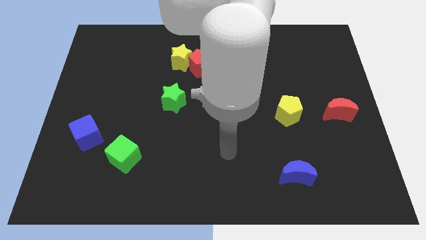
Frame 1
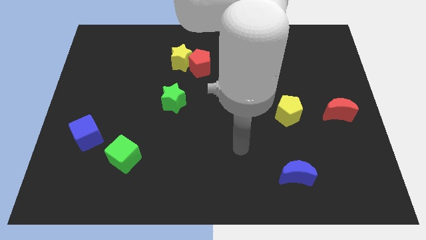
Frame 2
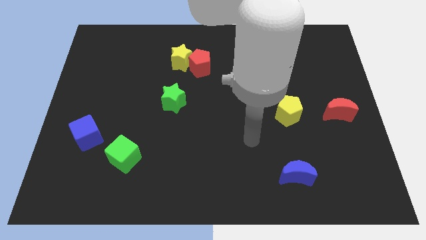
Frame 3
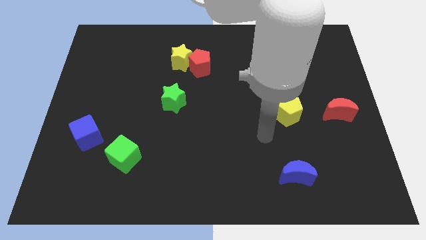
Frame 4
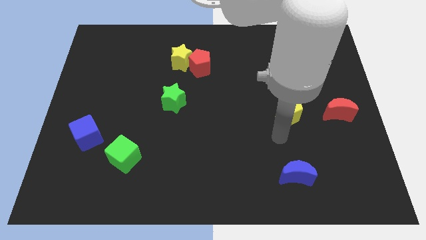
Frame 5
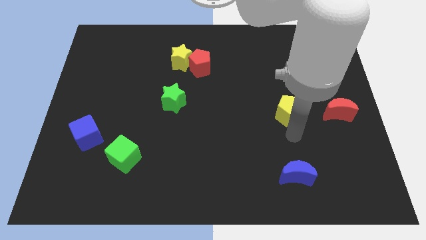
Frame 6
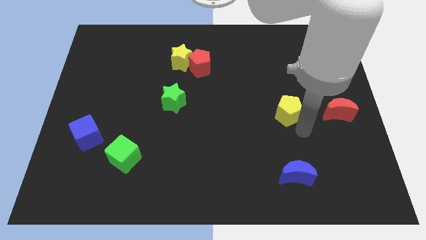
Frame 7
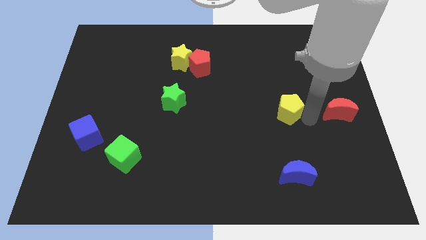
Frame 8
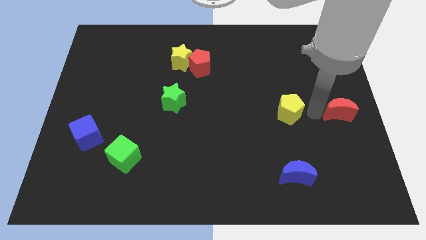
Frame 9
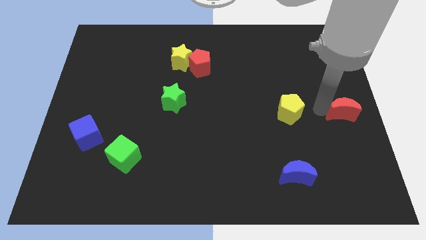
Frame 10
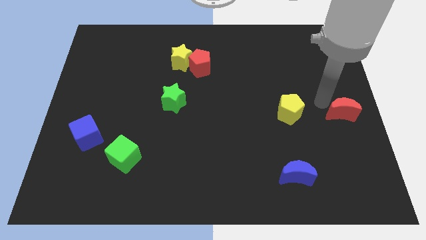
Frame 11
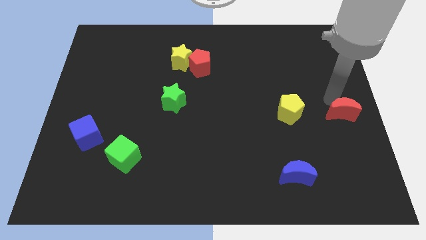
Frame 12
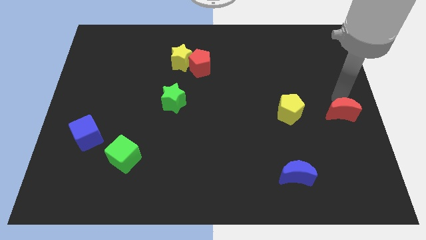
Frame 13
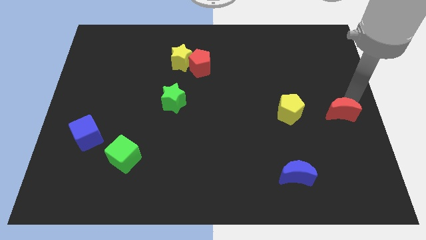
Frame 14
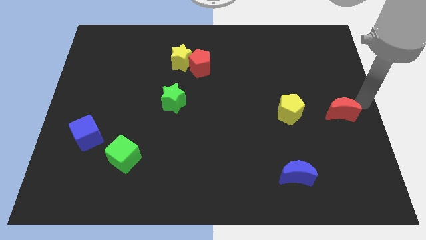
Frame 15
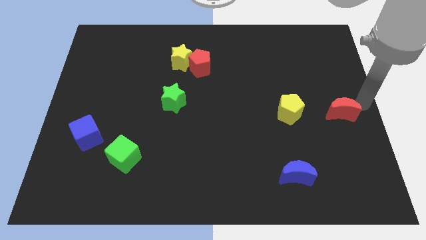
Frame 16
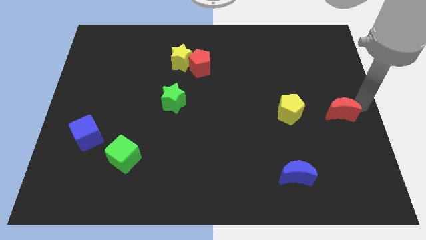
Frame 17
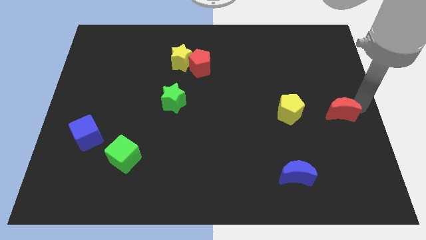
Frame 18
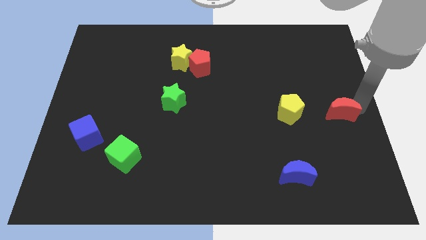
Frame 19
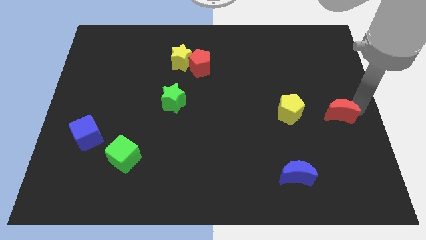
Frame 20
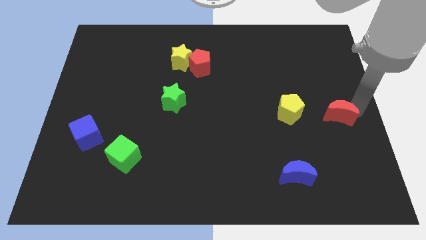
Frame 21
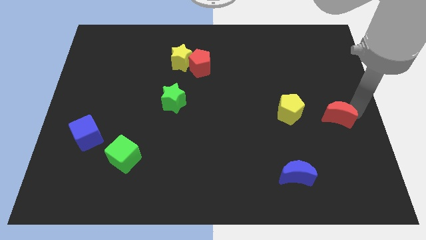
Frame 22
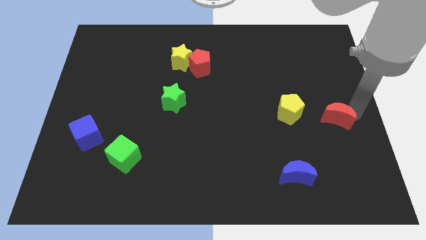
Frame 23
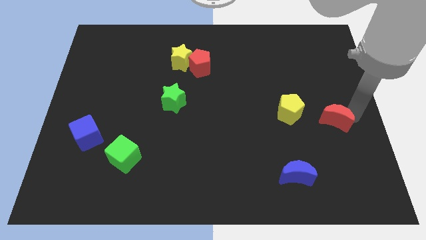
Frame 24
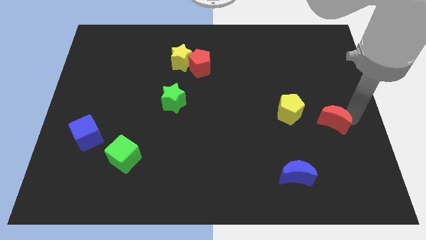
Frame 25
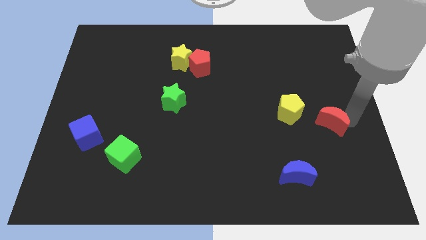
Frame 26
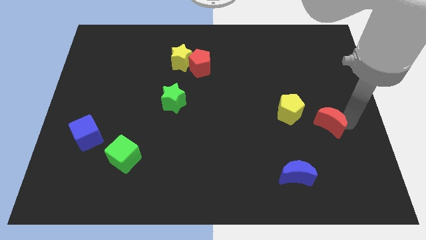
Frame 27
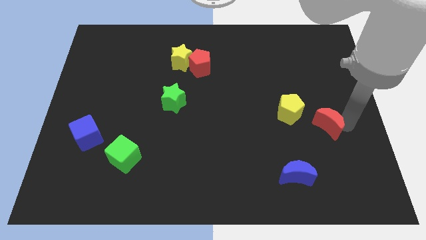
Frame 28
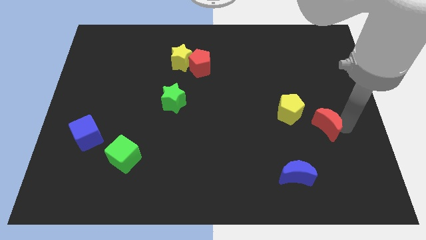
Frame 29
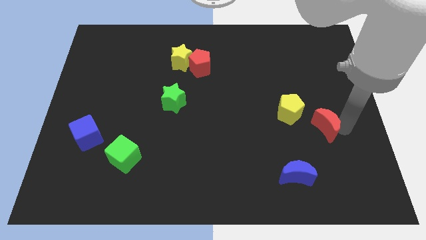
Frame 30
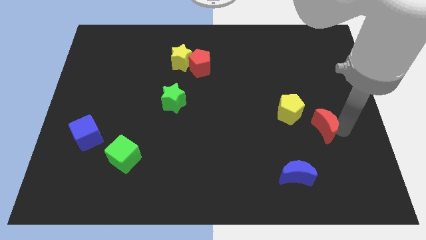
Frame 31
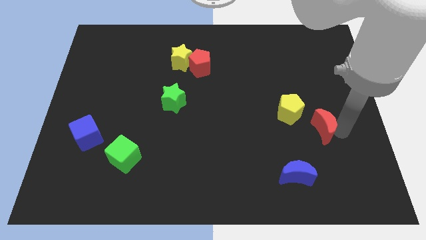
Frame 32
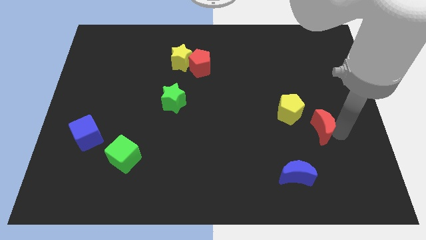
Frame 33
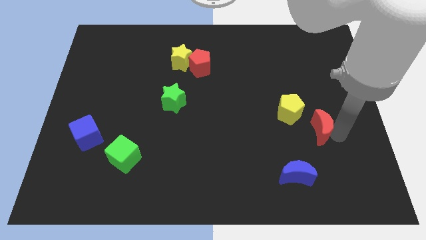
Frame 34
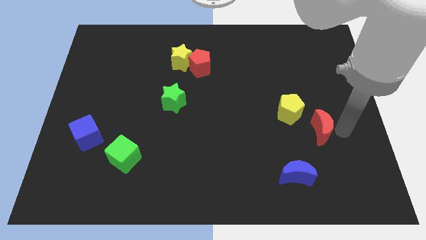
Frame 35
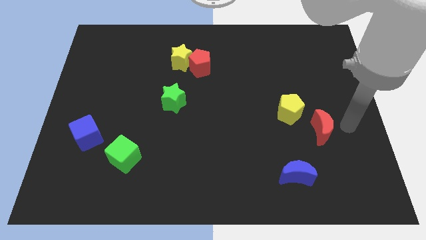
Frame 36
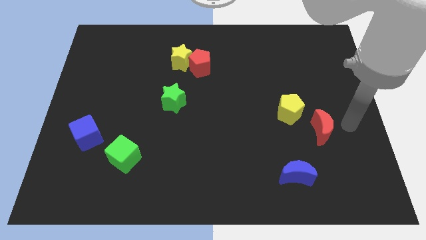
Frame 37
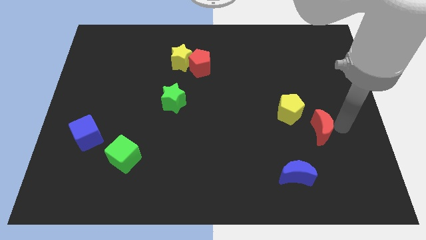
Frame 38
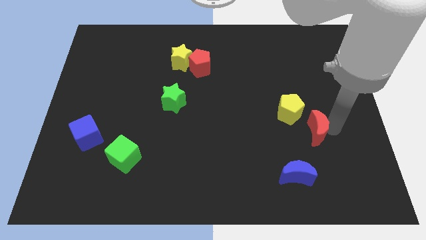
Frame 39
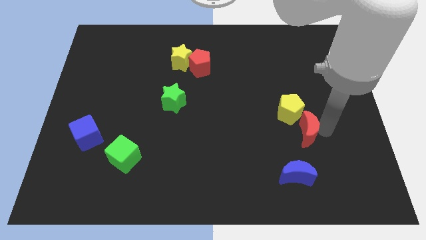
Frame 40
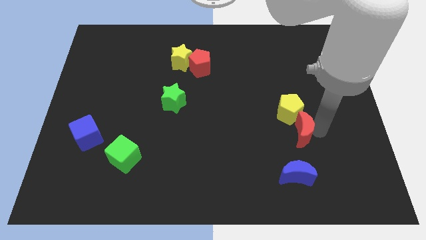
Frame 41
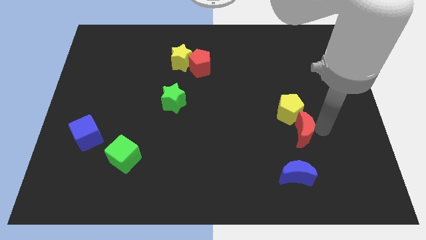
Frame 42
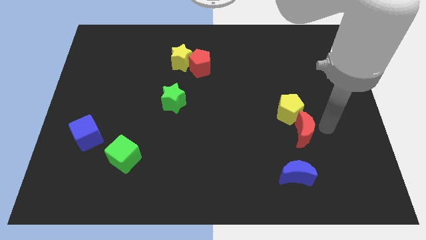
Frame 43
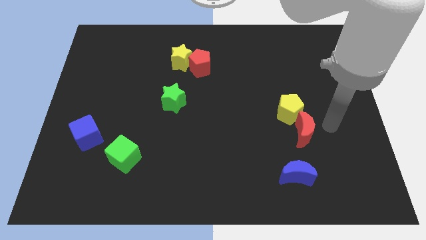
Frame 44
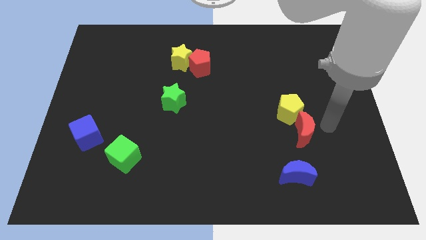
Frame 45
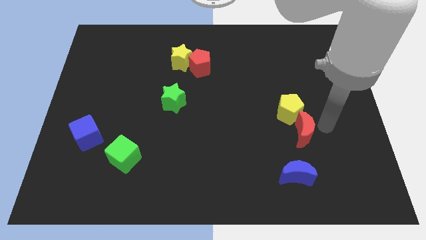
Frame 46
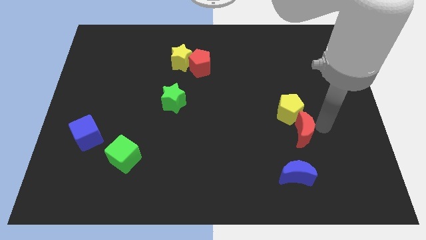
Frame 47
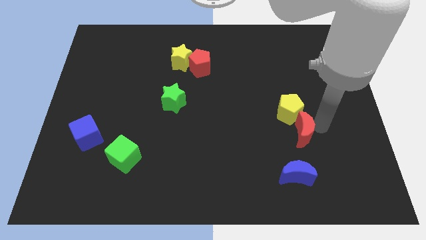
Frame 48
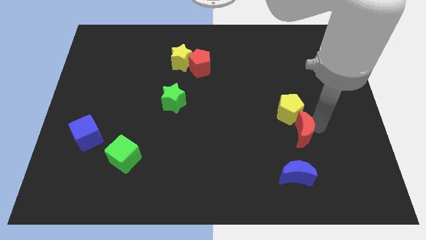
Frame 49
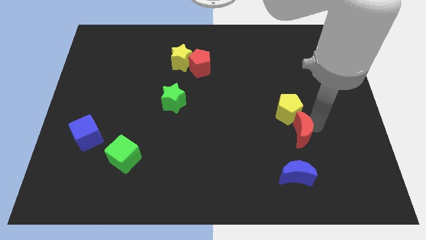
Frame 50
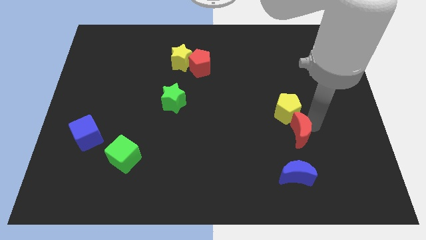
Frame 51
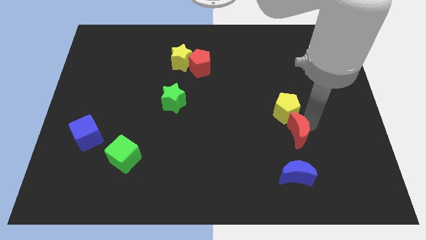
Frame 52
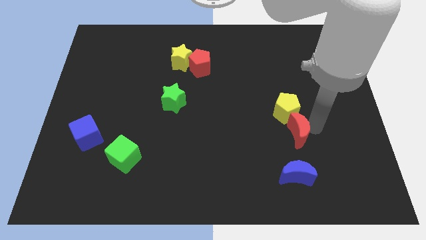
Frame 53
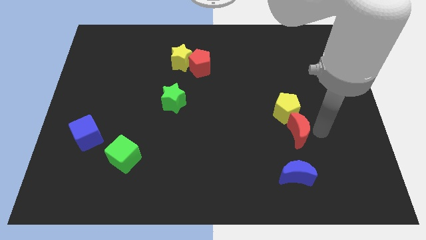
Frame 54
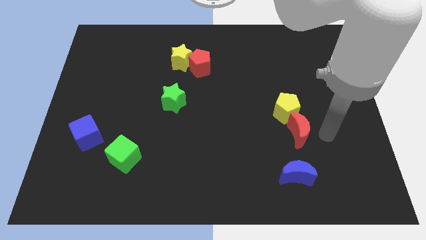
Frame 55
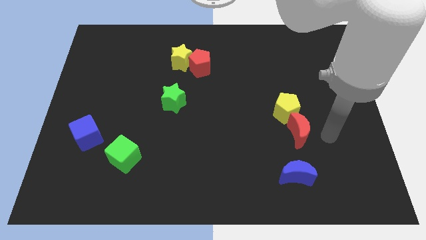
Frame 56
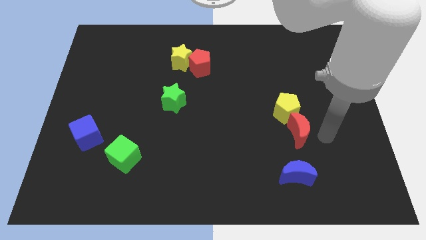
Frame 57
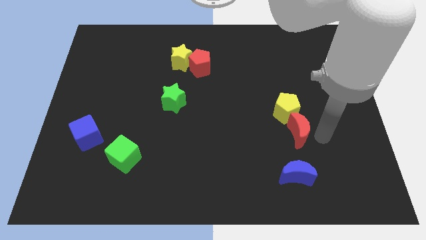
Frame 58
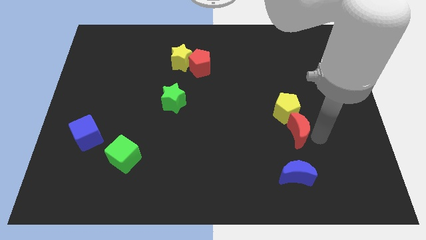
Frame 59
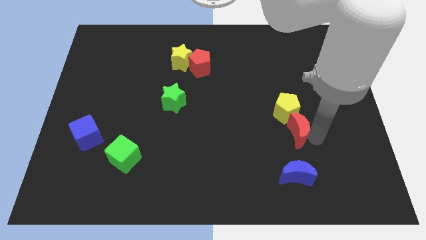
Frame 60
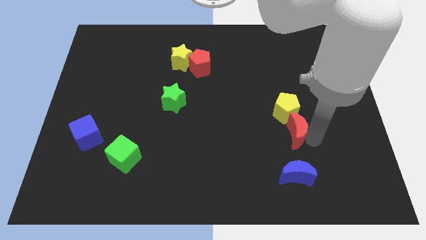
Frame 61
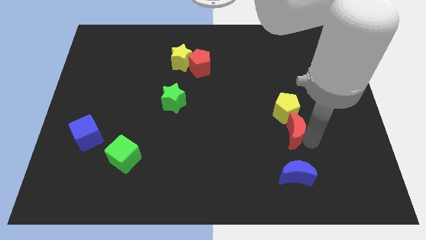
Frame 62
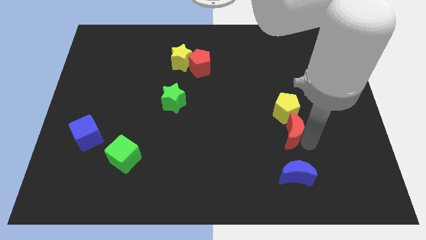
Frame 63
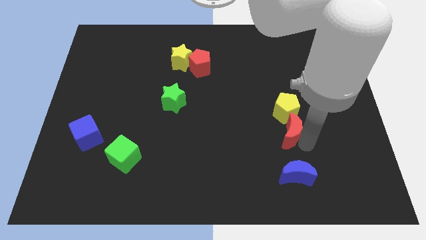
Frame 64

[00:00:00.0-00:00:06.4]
move the red moon diagonally down and to the left of the yellow pentagon

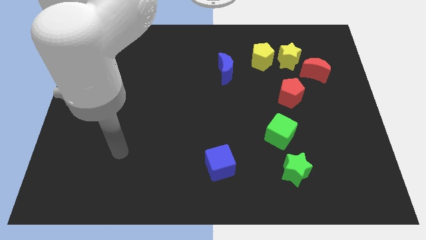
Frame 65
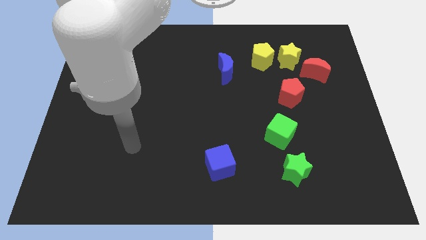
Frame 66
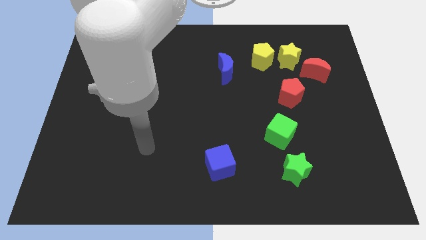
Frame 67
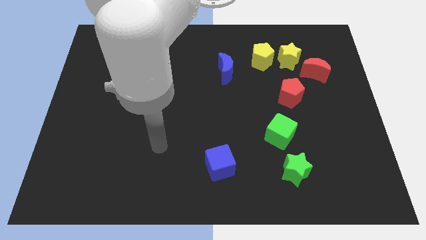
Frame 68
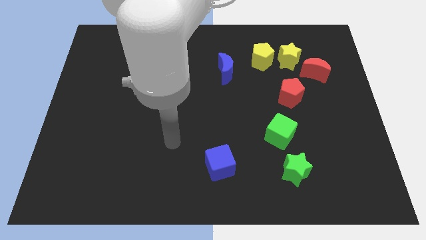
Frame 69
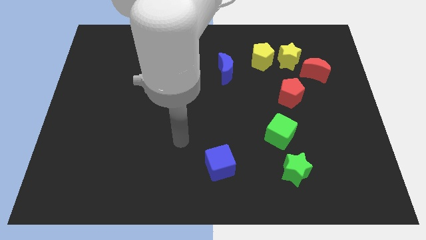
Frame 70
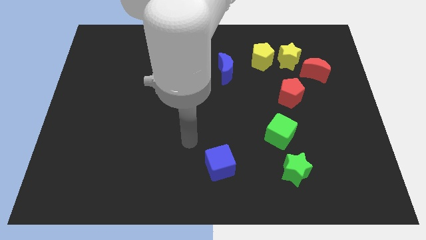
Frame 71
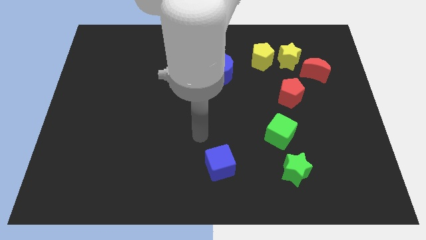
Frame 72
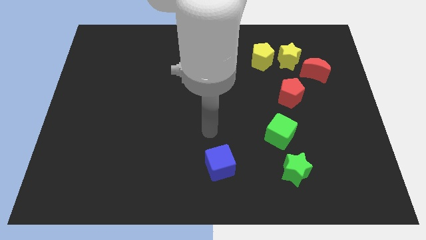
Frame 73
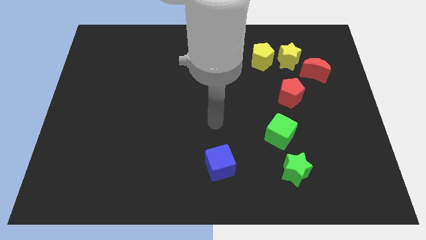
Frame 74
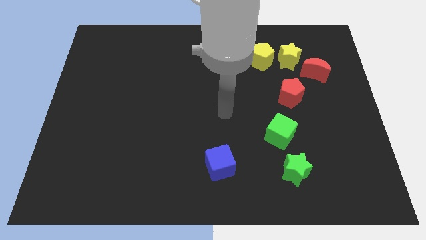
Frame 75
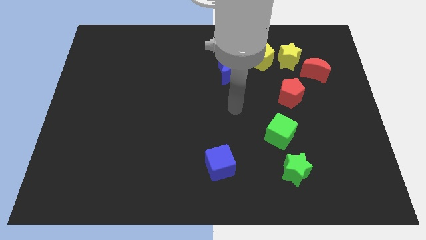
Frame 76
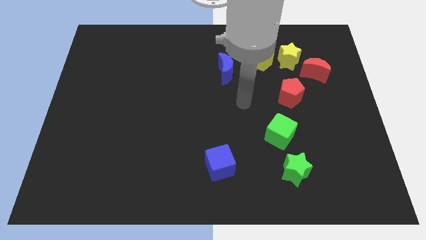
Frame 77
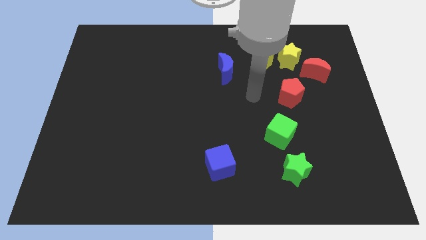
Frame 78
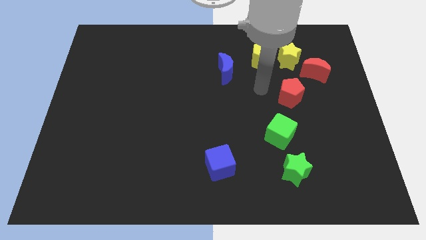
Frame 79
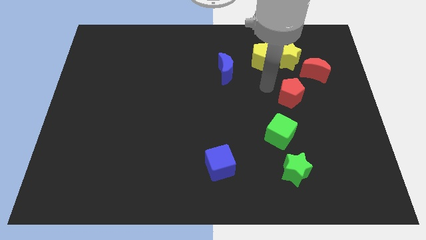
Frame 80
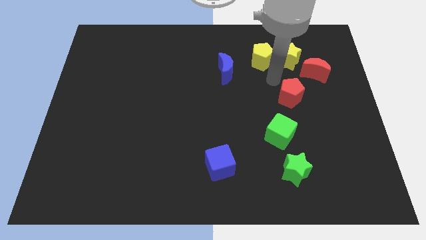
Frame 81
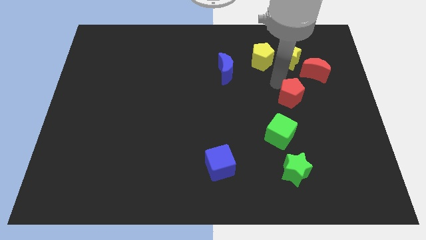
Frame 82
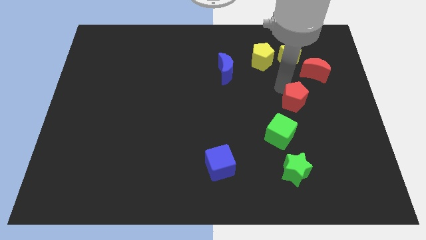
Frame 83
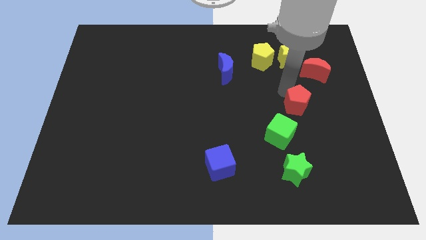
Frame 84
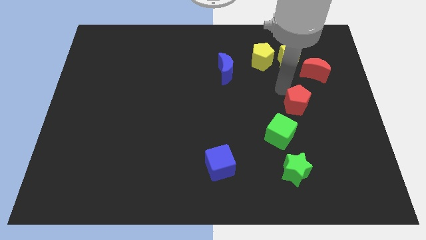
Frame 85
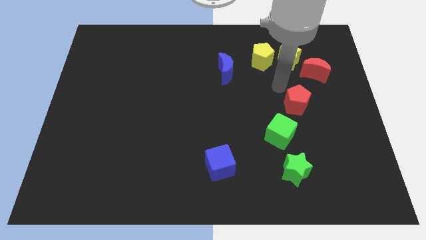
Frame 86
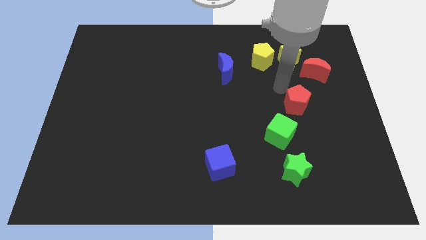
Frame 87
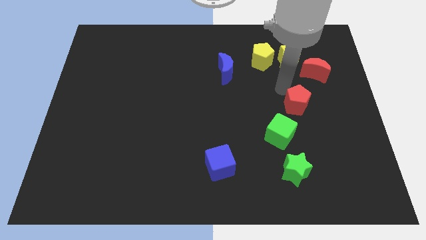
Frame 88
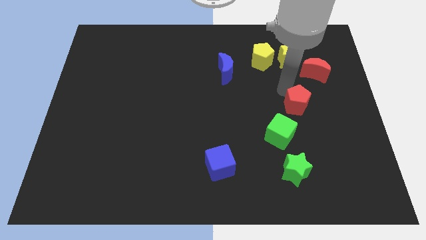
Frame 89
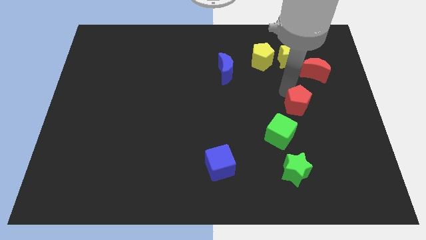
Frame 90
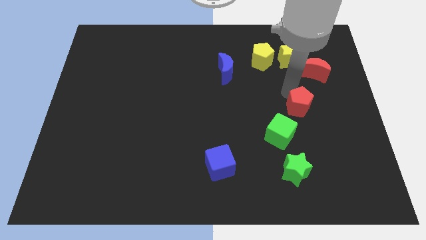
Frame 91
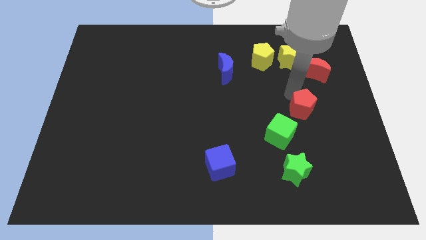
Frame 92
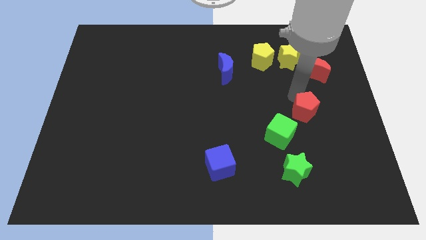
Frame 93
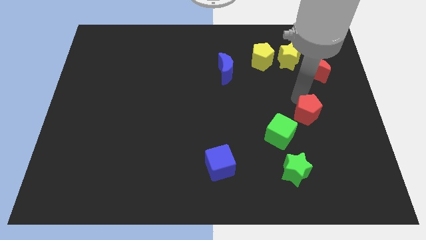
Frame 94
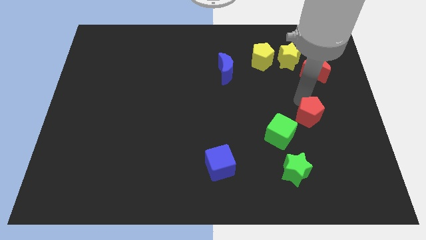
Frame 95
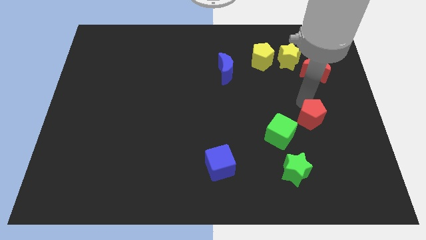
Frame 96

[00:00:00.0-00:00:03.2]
move the red pentagon to the right of the green cube
